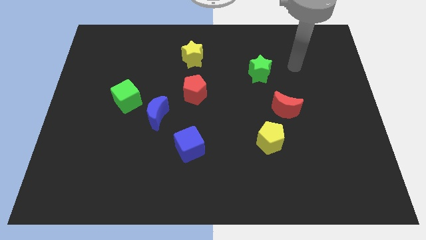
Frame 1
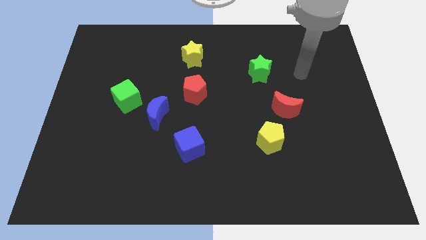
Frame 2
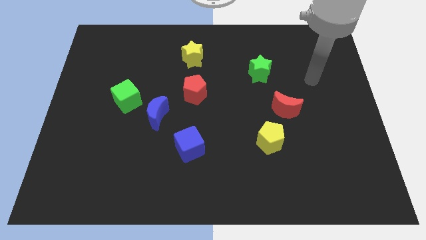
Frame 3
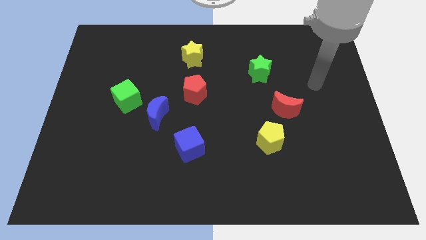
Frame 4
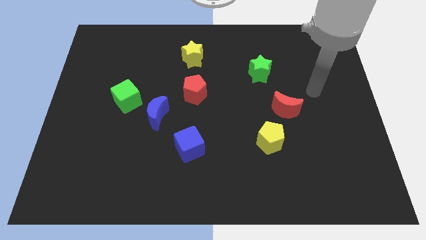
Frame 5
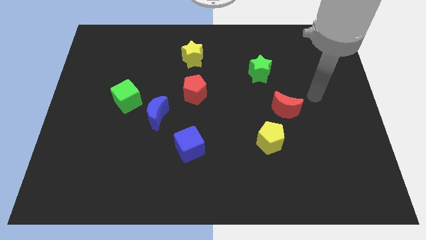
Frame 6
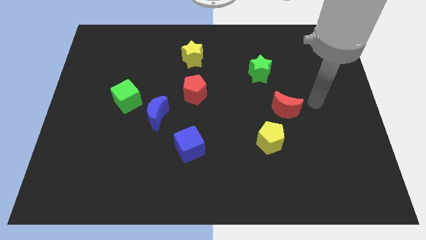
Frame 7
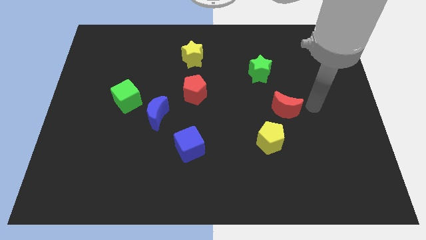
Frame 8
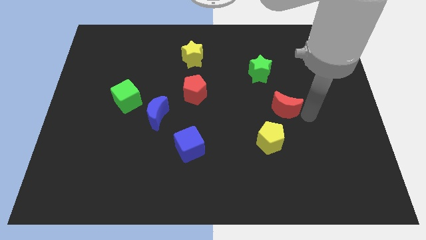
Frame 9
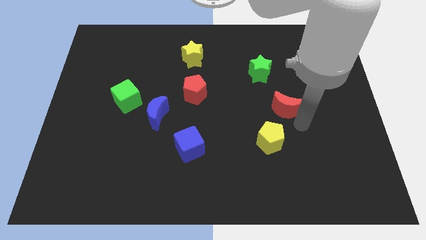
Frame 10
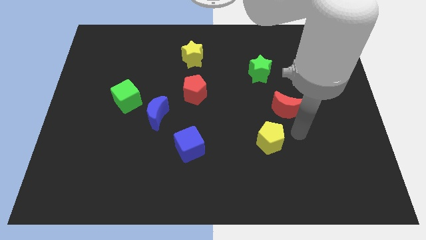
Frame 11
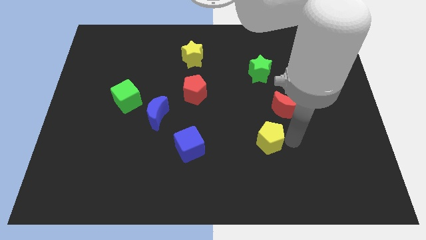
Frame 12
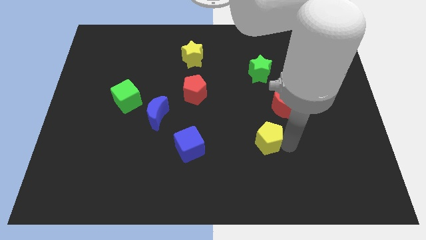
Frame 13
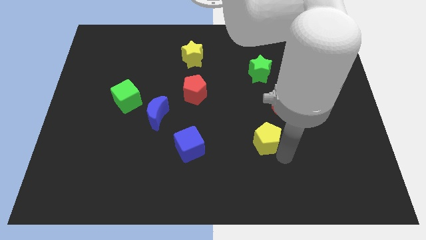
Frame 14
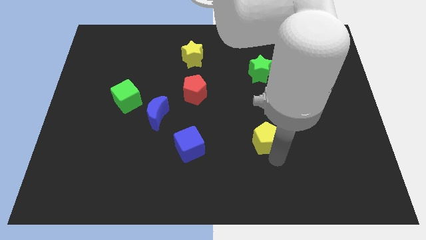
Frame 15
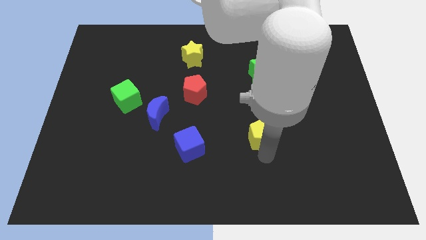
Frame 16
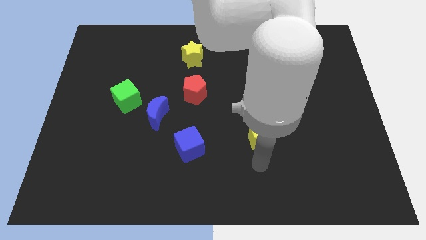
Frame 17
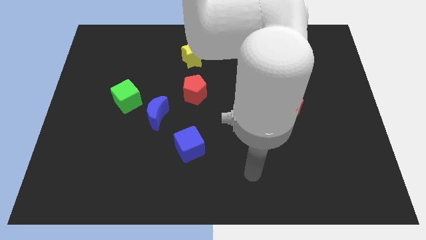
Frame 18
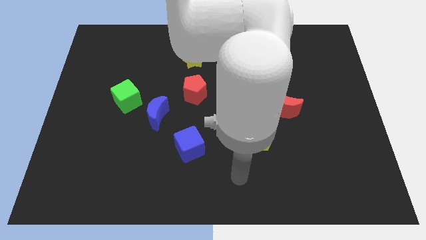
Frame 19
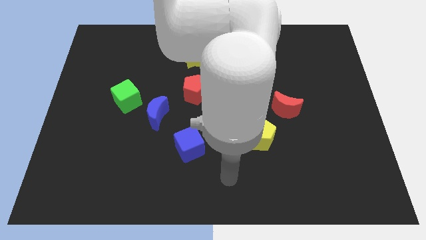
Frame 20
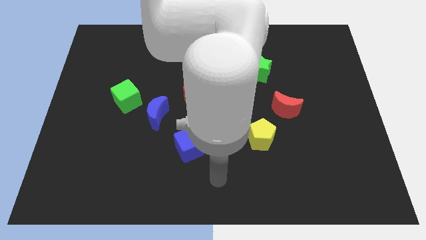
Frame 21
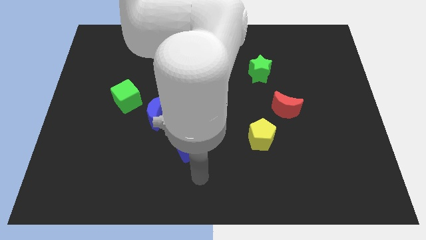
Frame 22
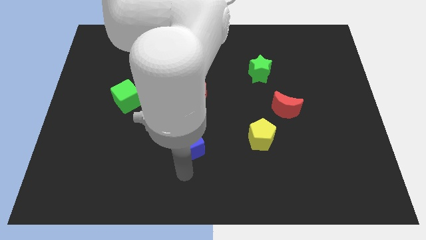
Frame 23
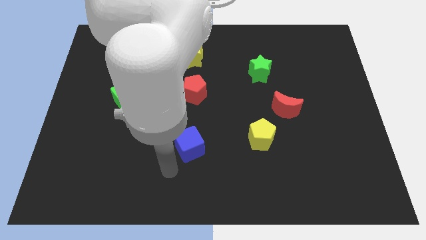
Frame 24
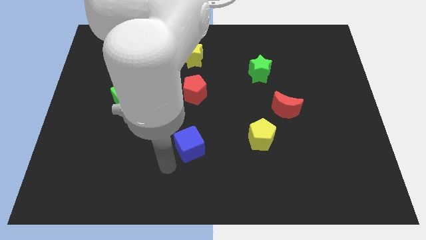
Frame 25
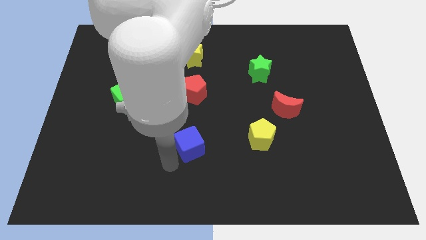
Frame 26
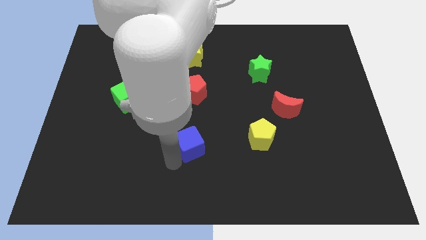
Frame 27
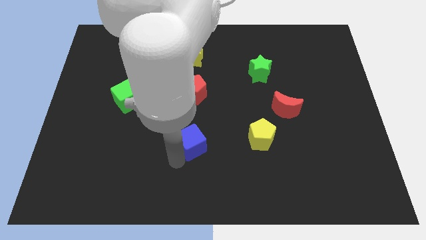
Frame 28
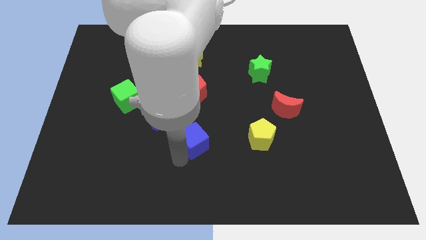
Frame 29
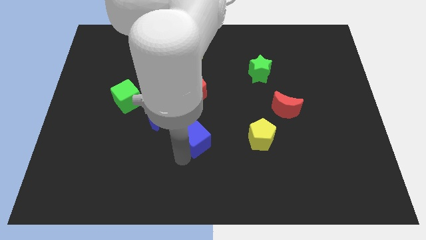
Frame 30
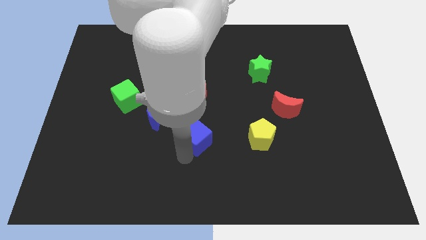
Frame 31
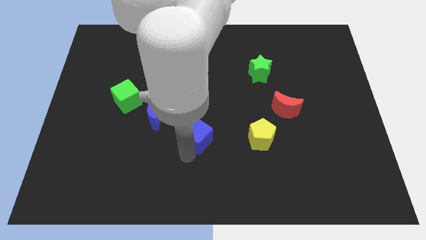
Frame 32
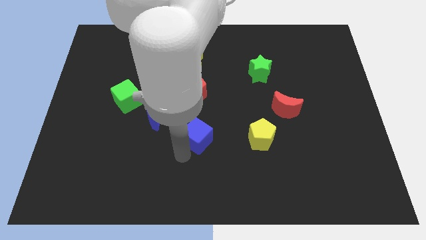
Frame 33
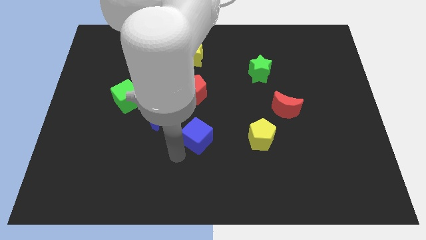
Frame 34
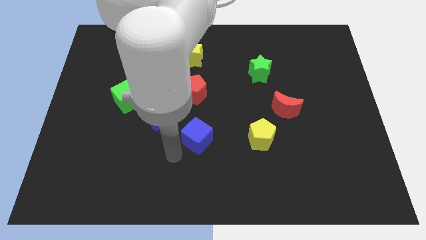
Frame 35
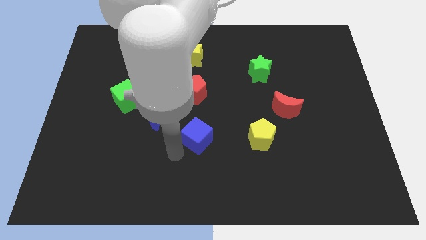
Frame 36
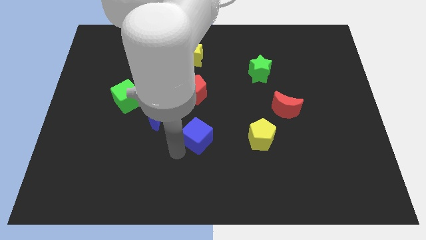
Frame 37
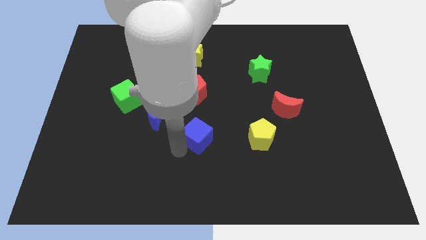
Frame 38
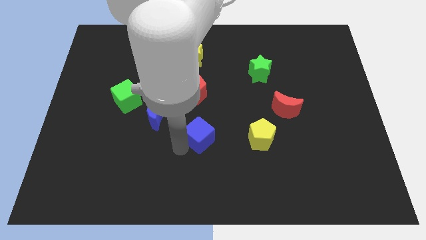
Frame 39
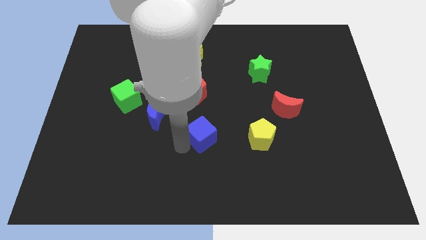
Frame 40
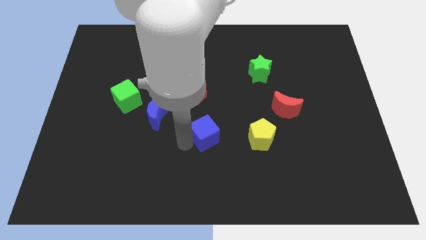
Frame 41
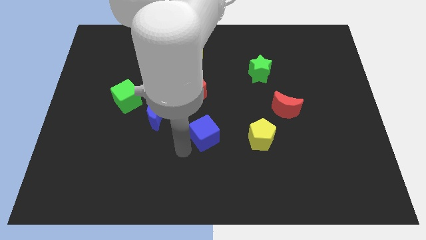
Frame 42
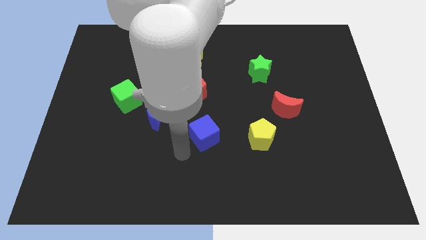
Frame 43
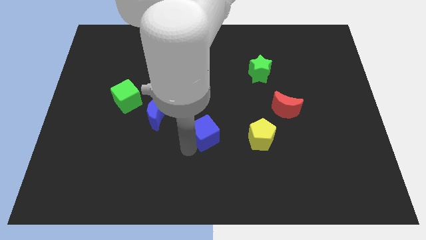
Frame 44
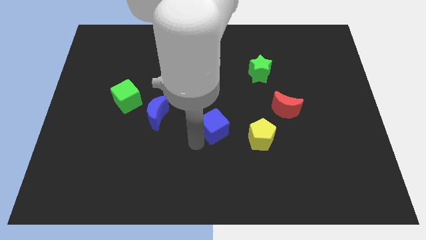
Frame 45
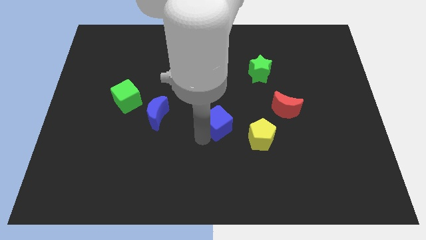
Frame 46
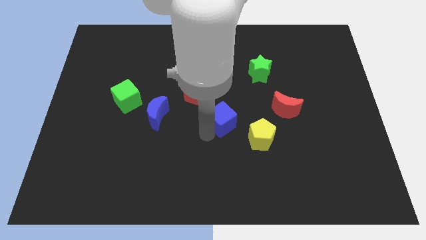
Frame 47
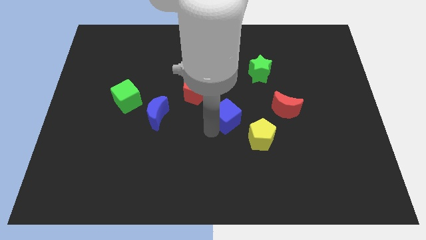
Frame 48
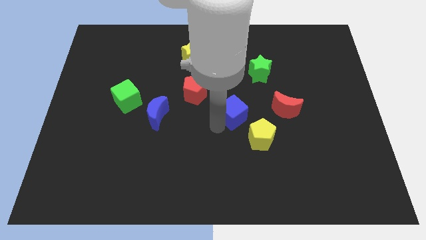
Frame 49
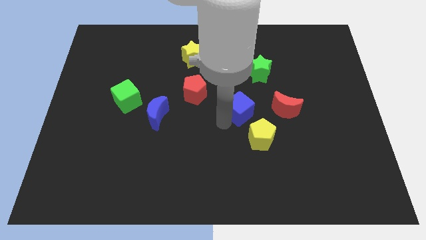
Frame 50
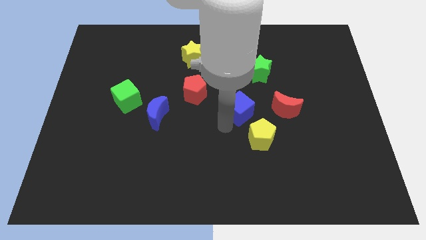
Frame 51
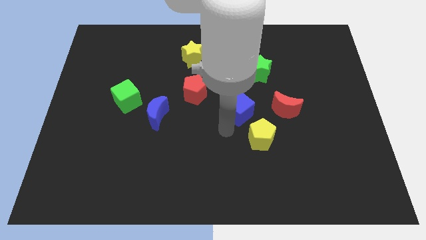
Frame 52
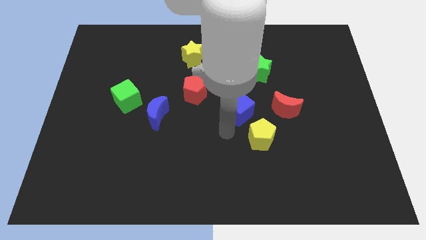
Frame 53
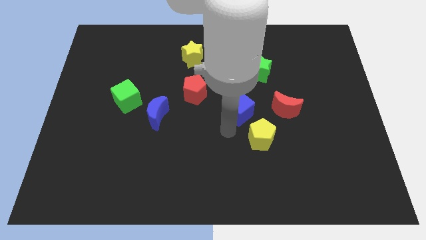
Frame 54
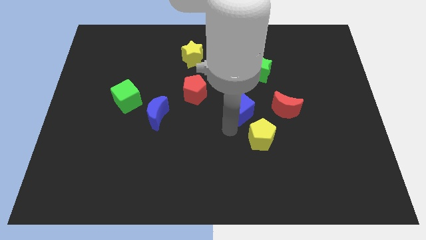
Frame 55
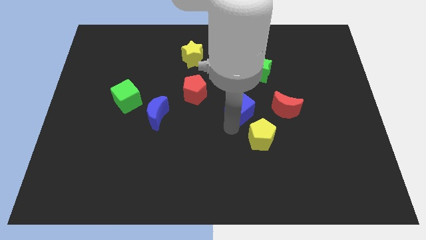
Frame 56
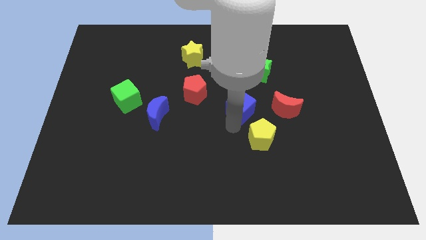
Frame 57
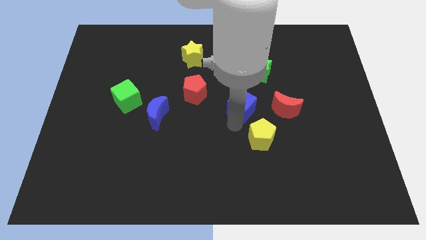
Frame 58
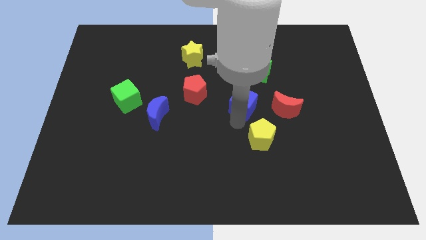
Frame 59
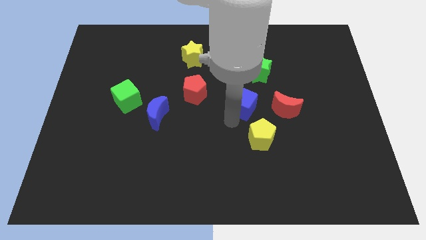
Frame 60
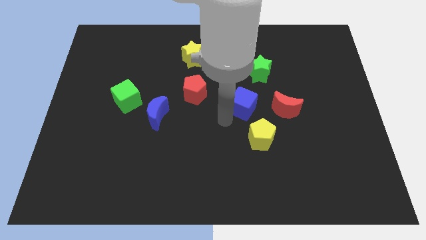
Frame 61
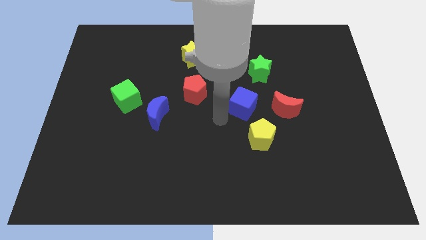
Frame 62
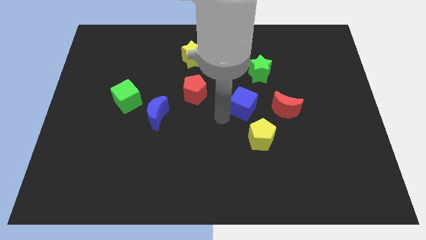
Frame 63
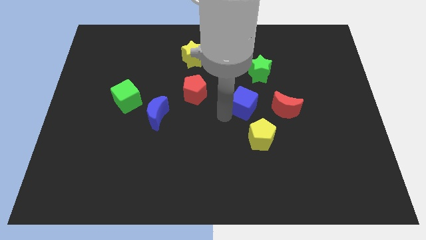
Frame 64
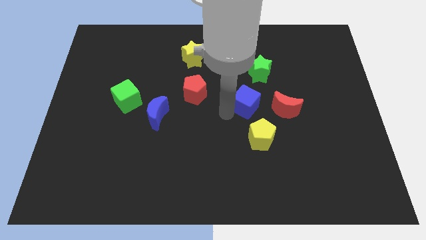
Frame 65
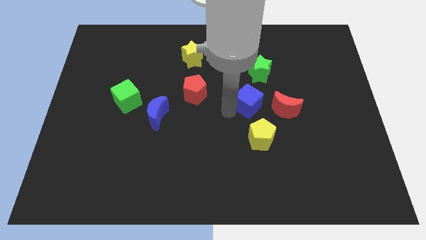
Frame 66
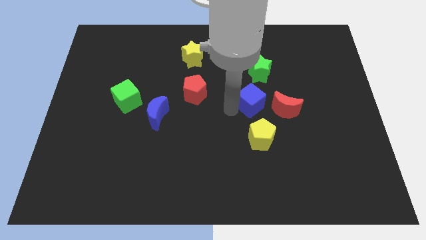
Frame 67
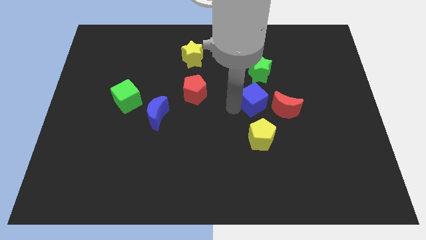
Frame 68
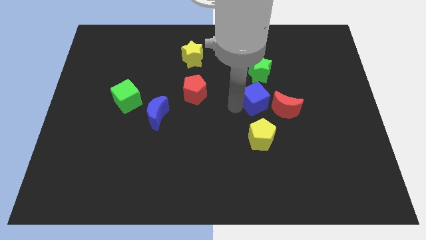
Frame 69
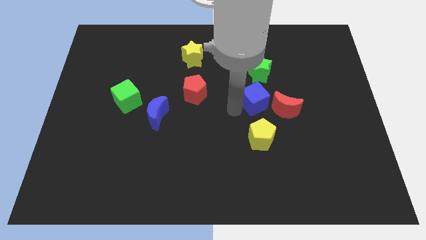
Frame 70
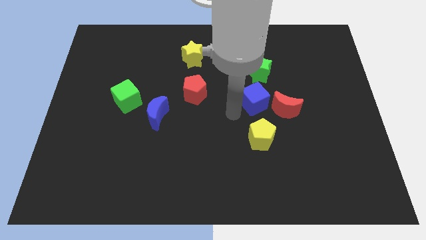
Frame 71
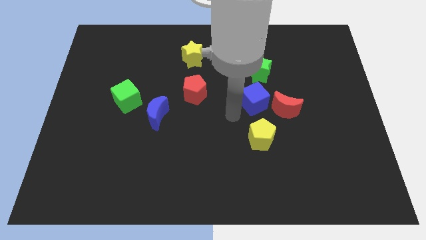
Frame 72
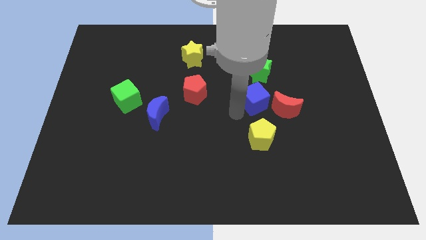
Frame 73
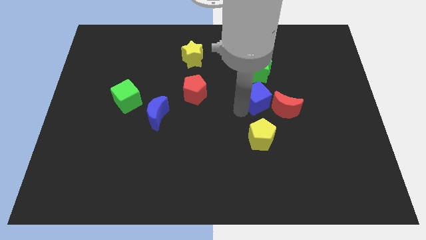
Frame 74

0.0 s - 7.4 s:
slide the blue cube upwards and right

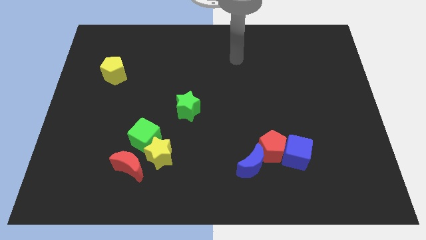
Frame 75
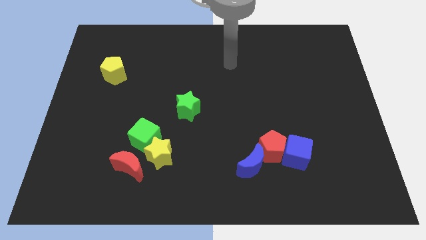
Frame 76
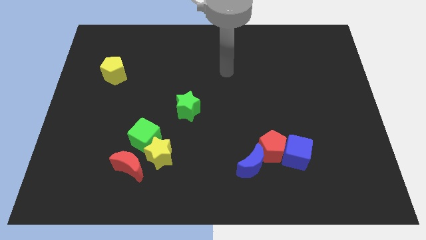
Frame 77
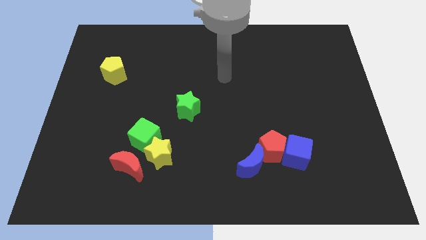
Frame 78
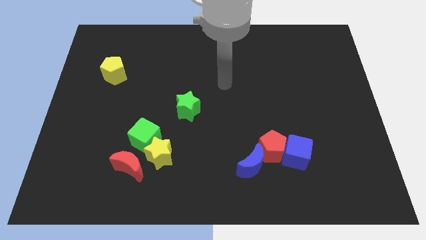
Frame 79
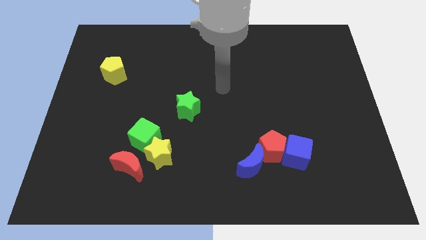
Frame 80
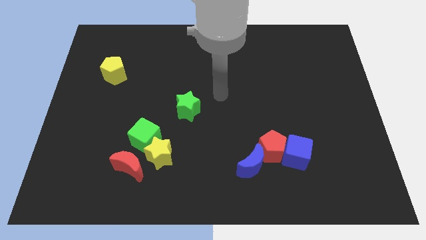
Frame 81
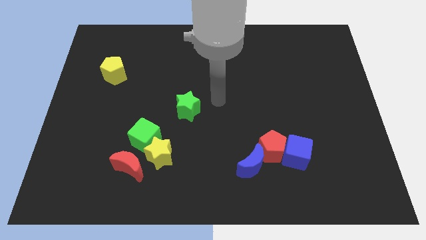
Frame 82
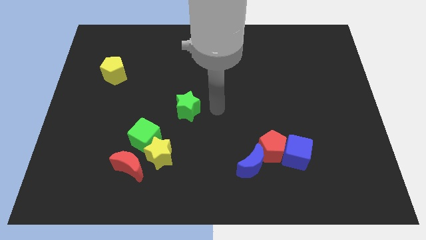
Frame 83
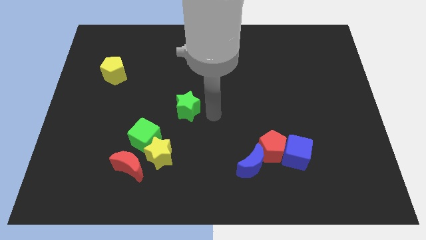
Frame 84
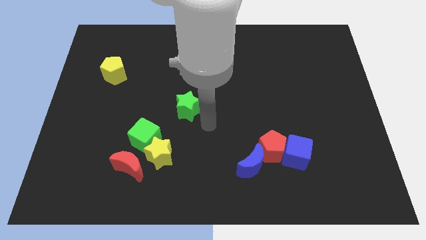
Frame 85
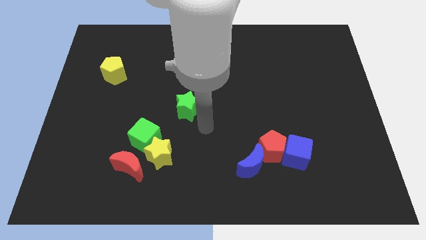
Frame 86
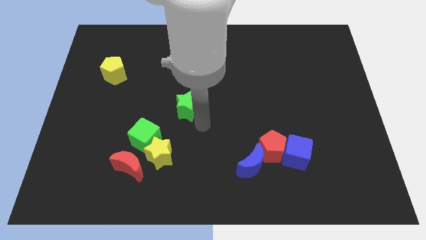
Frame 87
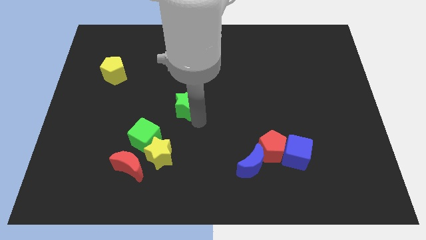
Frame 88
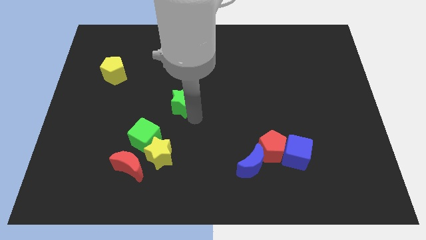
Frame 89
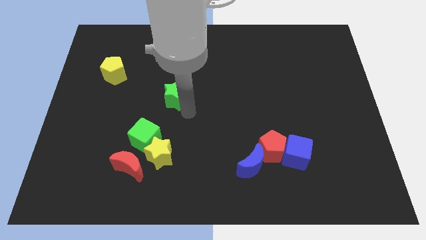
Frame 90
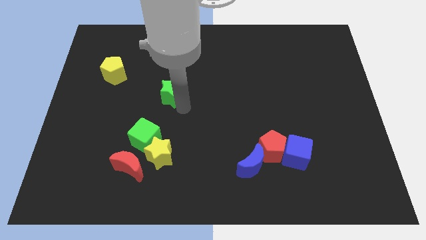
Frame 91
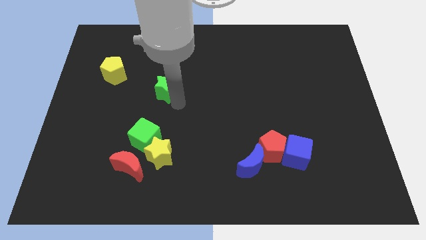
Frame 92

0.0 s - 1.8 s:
move the green star diagonally up and left a little bit
